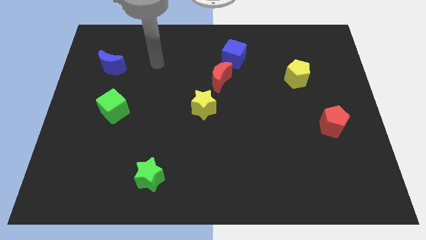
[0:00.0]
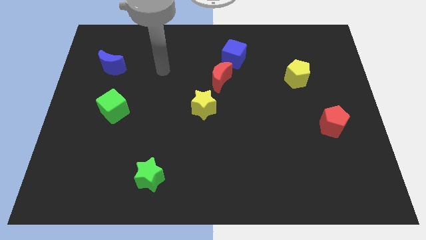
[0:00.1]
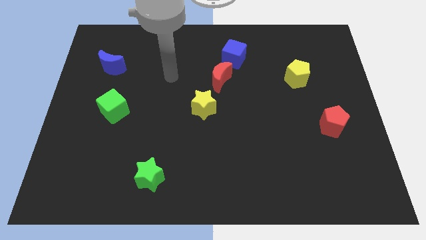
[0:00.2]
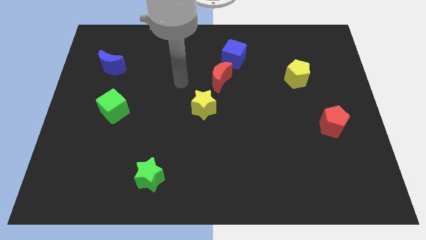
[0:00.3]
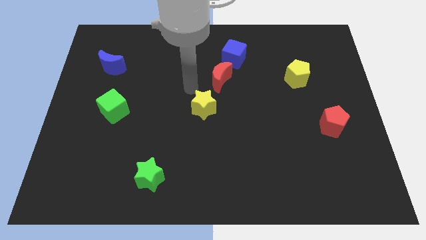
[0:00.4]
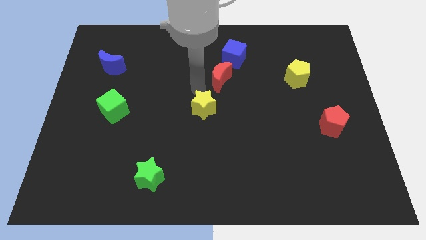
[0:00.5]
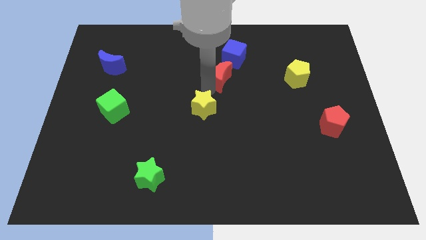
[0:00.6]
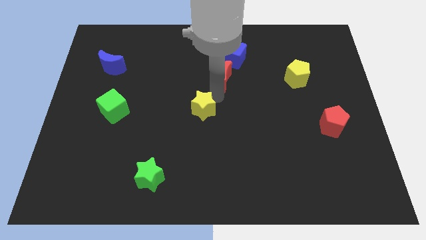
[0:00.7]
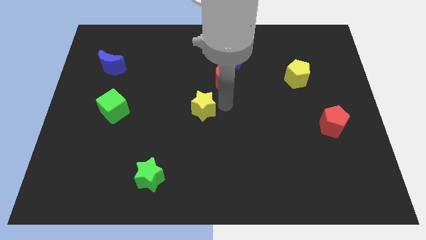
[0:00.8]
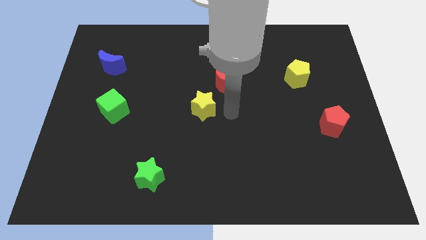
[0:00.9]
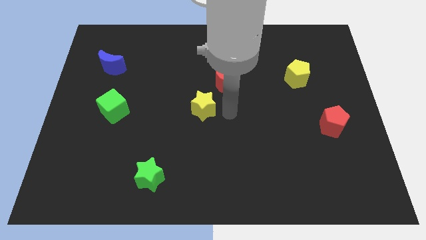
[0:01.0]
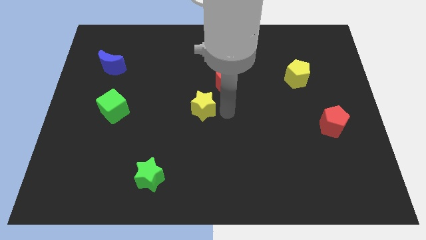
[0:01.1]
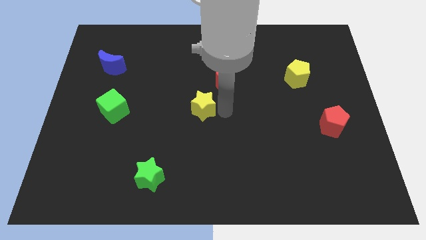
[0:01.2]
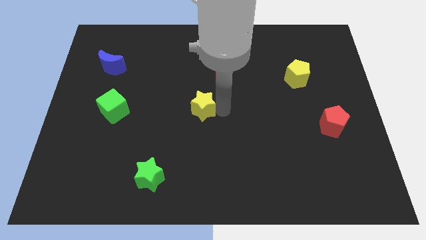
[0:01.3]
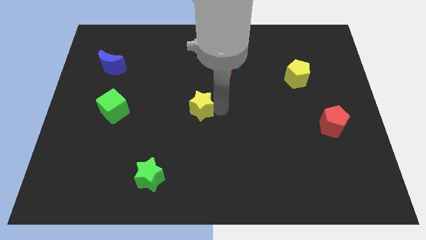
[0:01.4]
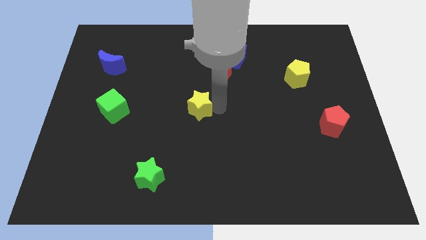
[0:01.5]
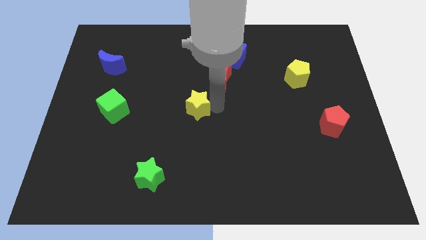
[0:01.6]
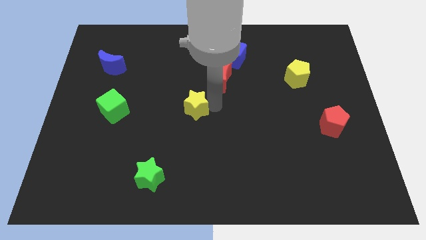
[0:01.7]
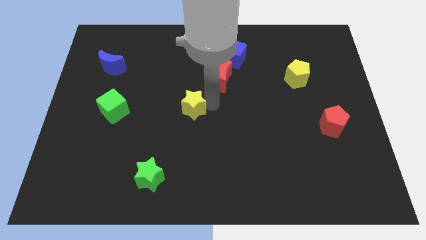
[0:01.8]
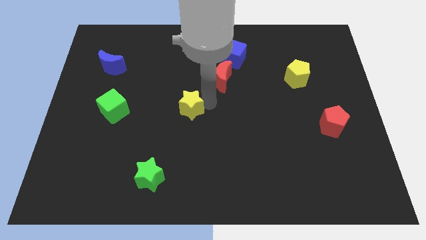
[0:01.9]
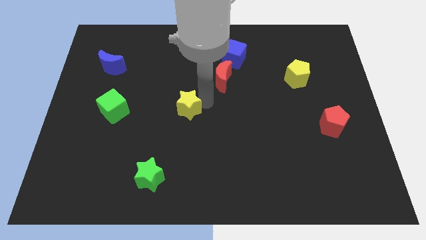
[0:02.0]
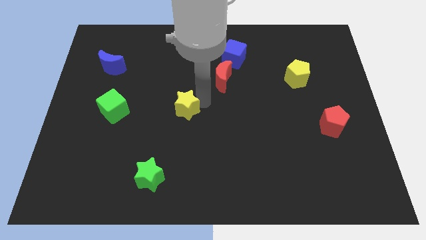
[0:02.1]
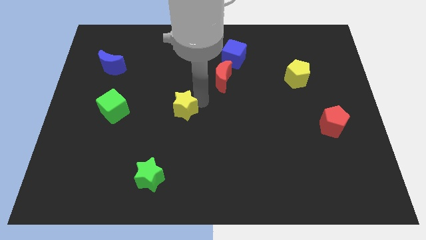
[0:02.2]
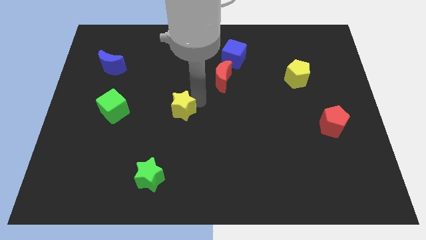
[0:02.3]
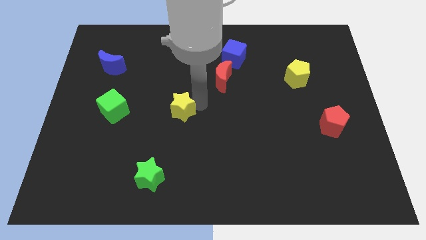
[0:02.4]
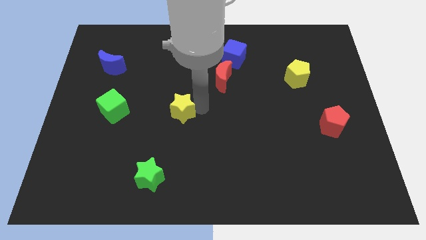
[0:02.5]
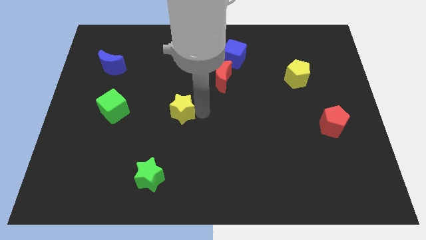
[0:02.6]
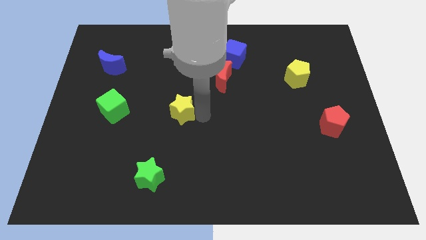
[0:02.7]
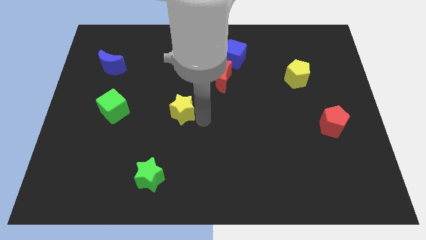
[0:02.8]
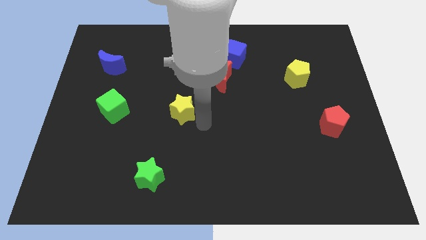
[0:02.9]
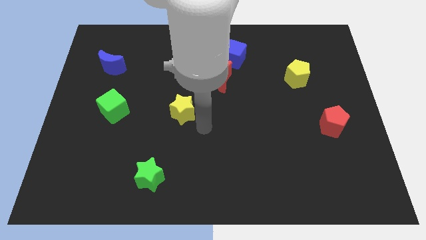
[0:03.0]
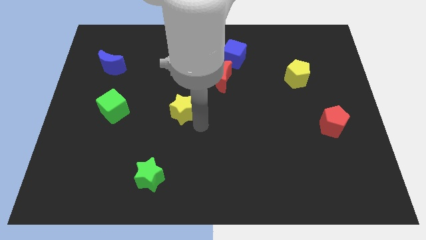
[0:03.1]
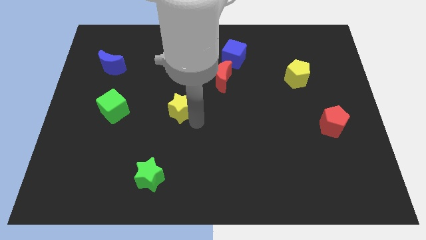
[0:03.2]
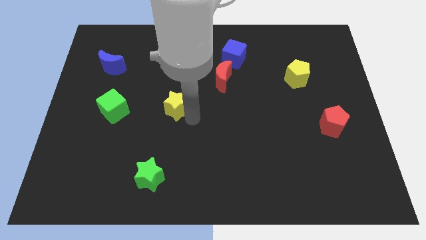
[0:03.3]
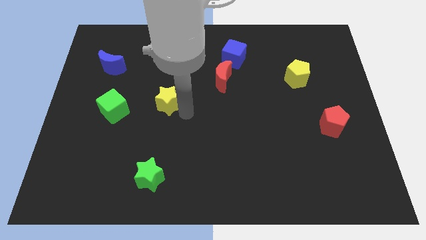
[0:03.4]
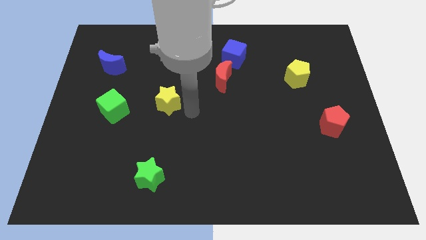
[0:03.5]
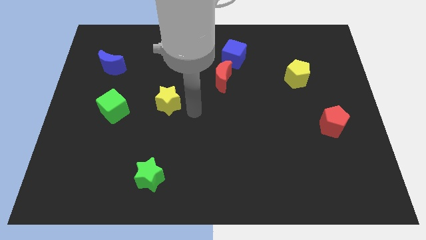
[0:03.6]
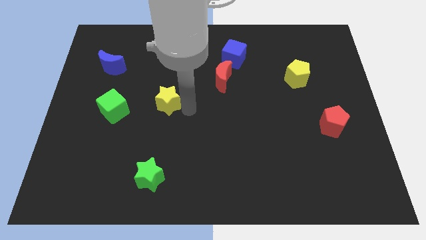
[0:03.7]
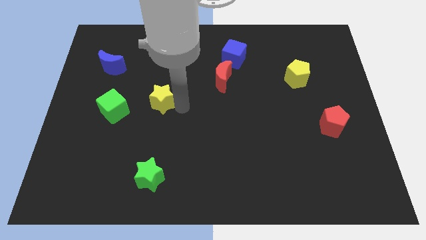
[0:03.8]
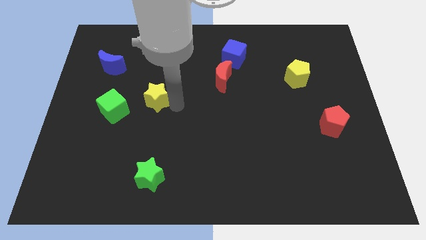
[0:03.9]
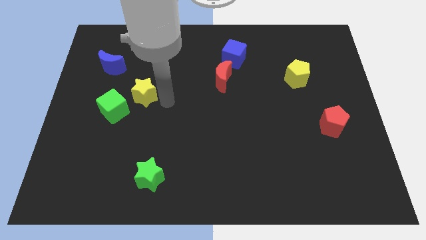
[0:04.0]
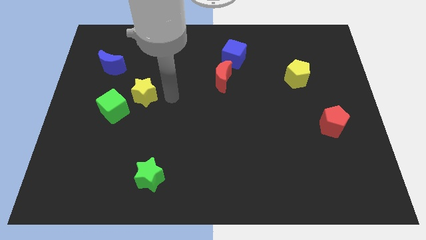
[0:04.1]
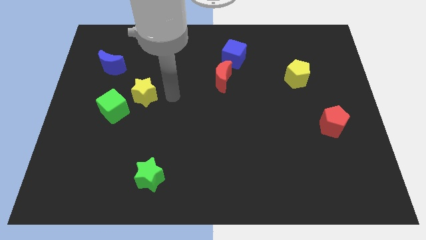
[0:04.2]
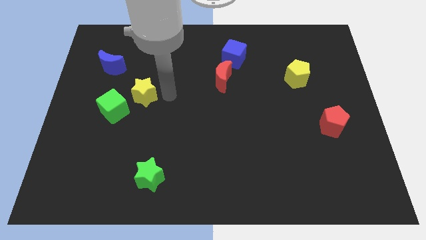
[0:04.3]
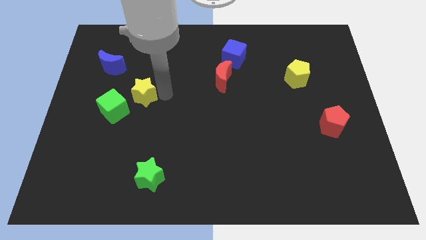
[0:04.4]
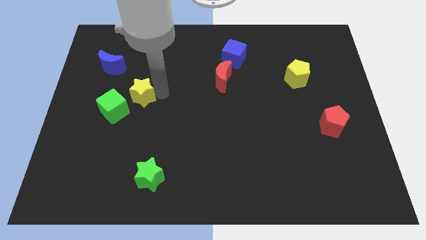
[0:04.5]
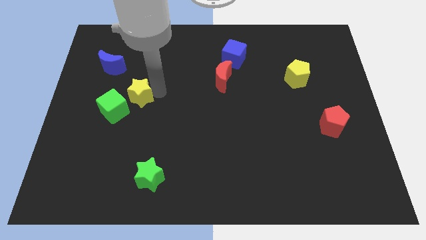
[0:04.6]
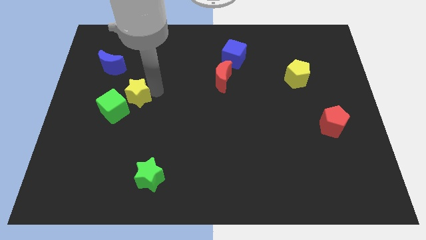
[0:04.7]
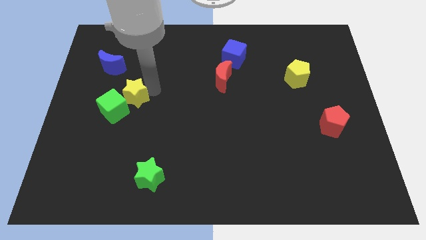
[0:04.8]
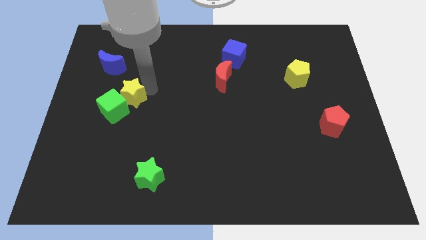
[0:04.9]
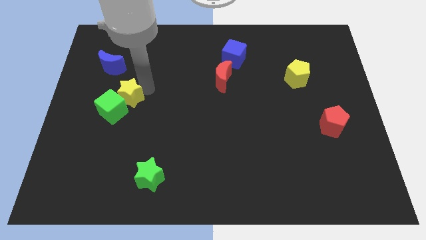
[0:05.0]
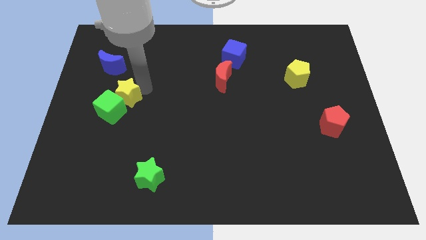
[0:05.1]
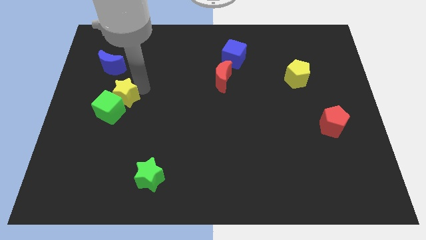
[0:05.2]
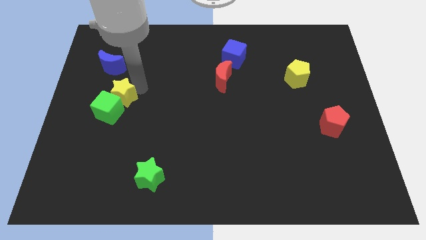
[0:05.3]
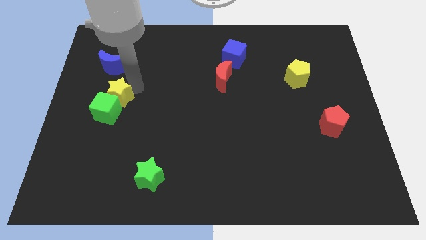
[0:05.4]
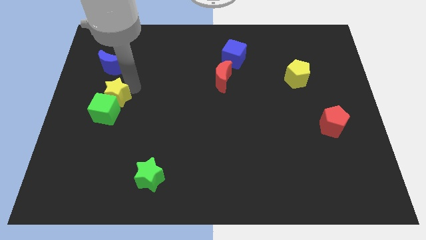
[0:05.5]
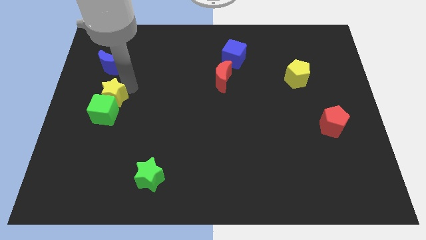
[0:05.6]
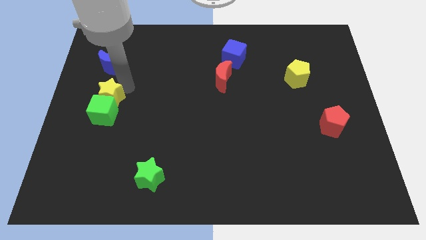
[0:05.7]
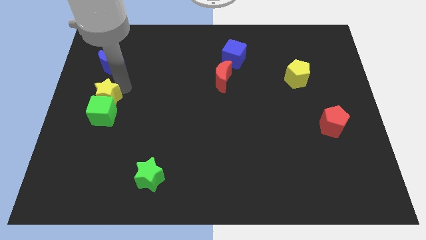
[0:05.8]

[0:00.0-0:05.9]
put the yellow star to the left side of the board

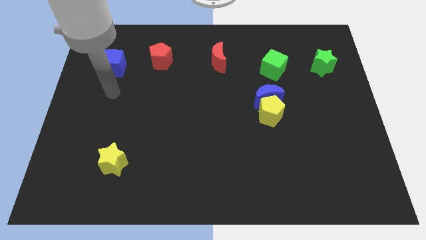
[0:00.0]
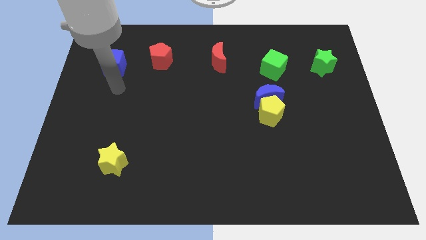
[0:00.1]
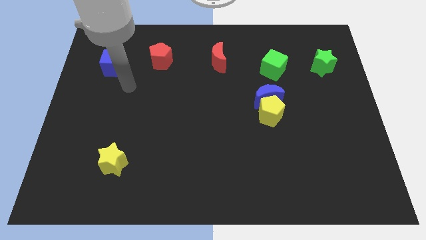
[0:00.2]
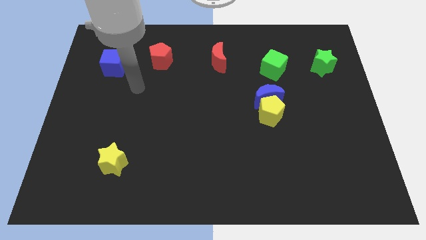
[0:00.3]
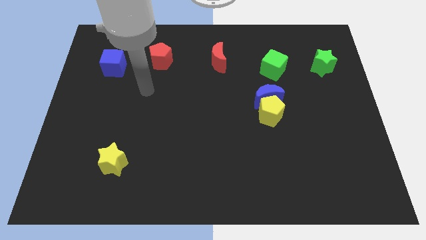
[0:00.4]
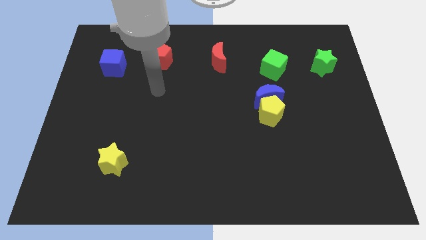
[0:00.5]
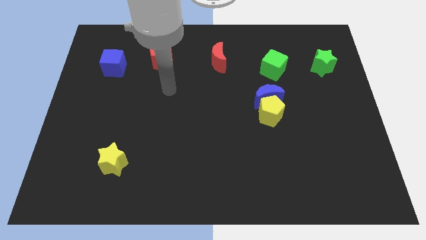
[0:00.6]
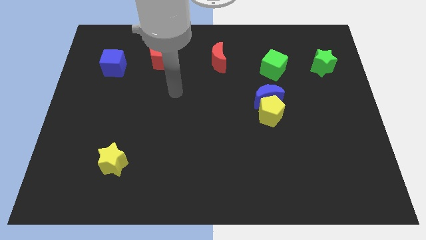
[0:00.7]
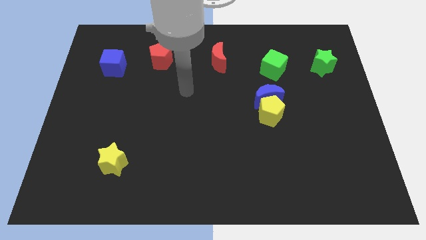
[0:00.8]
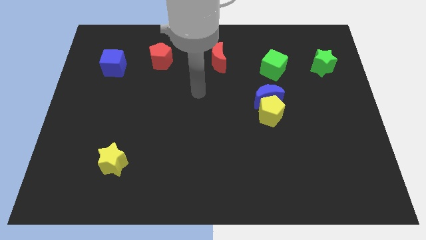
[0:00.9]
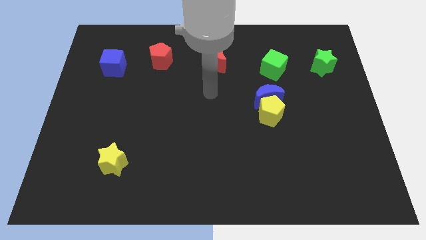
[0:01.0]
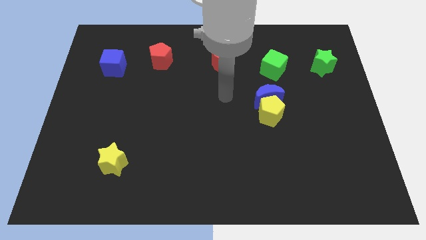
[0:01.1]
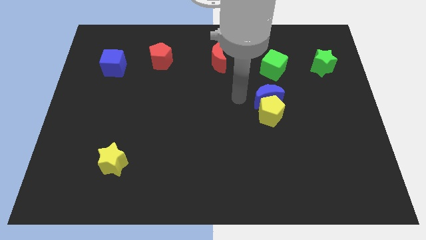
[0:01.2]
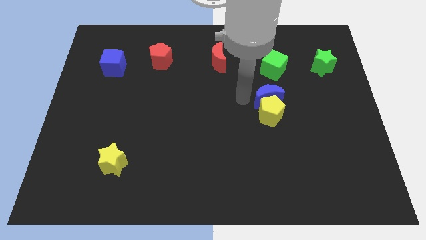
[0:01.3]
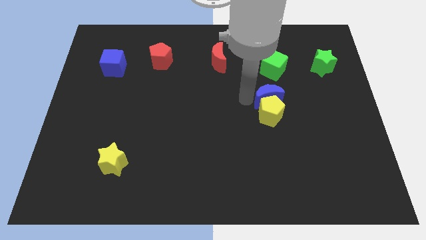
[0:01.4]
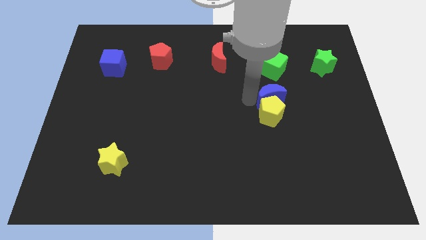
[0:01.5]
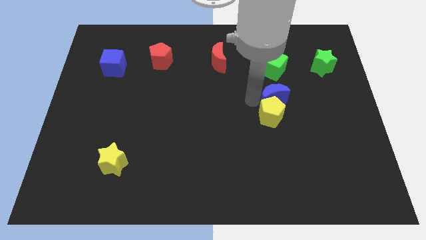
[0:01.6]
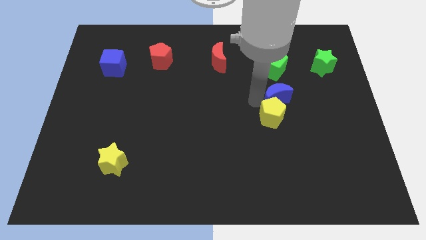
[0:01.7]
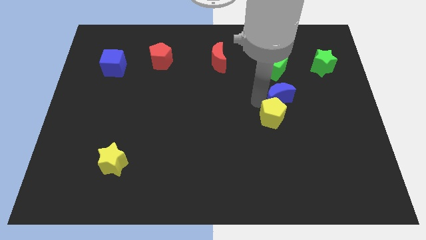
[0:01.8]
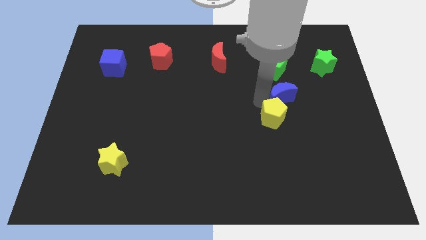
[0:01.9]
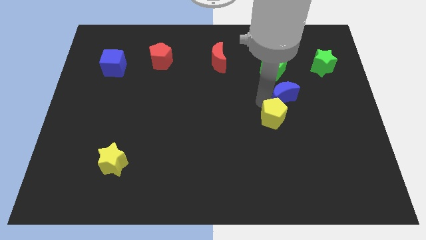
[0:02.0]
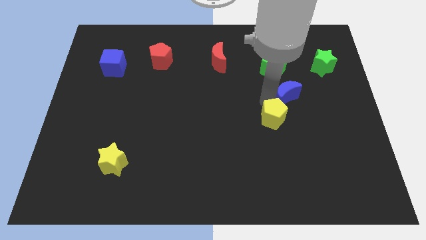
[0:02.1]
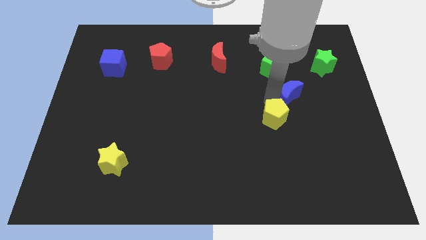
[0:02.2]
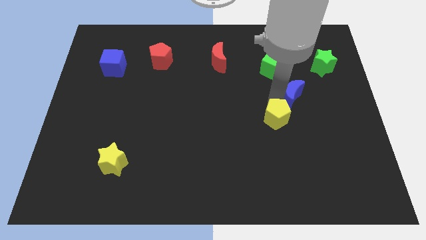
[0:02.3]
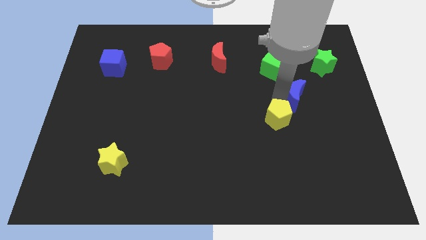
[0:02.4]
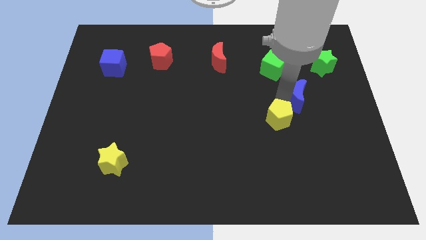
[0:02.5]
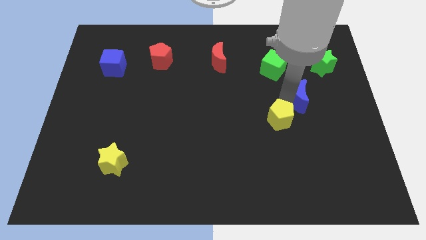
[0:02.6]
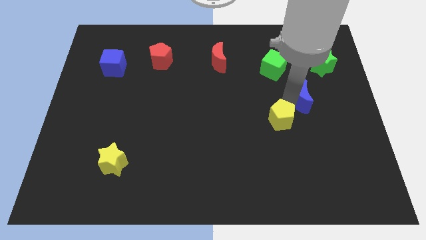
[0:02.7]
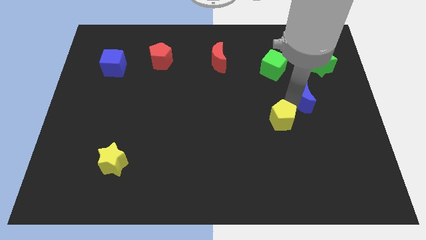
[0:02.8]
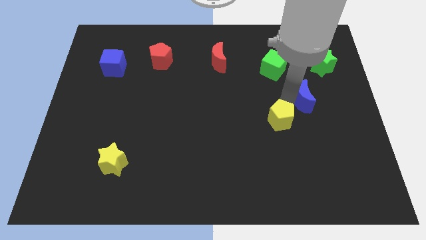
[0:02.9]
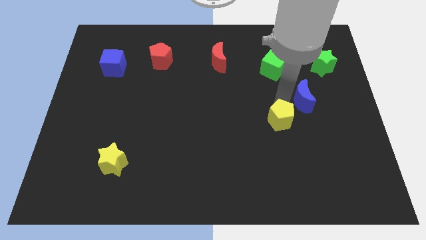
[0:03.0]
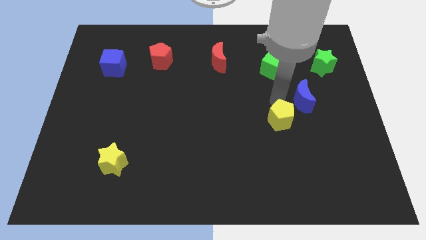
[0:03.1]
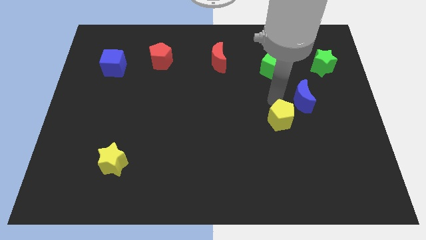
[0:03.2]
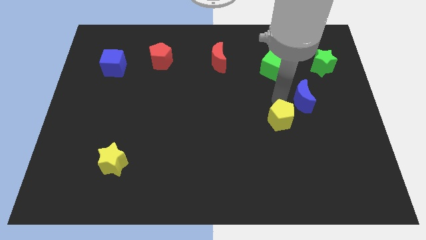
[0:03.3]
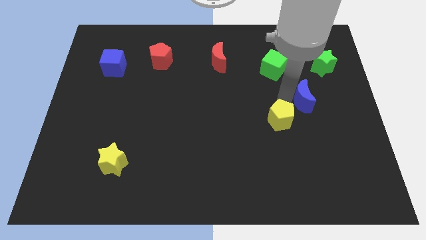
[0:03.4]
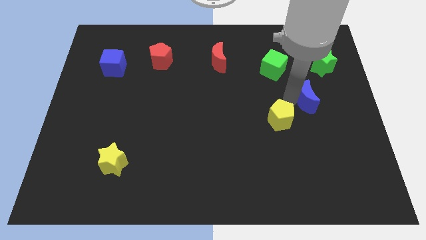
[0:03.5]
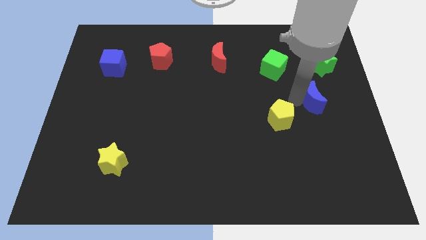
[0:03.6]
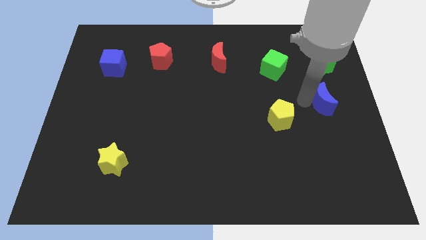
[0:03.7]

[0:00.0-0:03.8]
push the blue moon to the right side of the board
